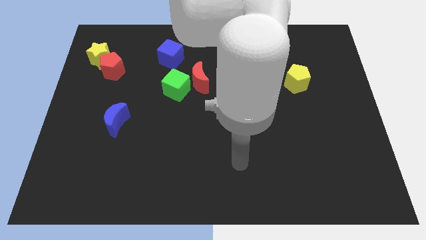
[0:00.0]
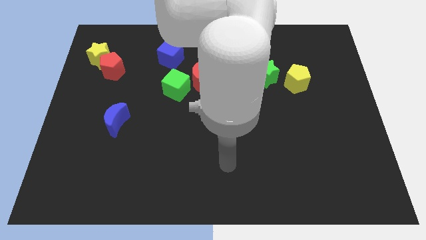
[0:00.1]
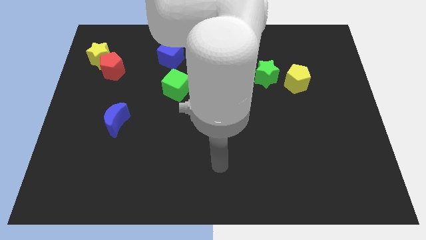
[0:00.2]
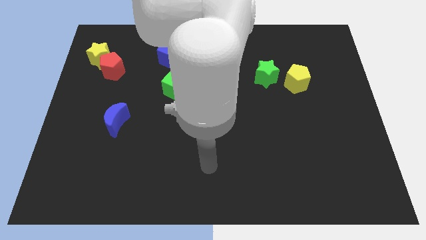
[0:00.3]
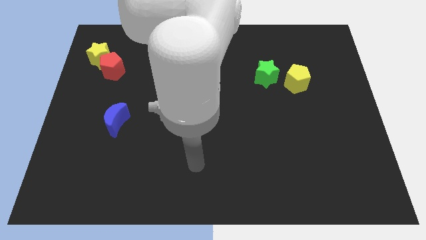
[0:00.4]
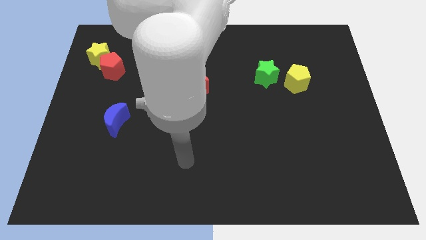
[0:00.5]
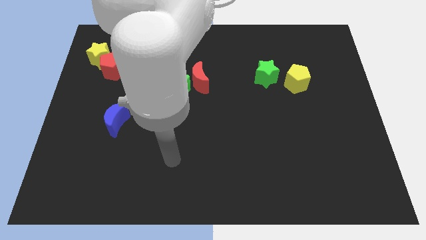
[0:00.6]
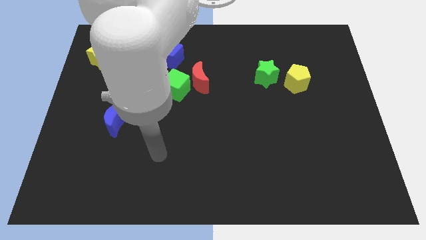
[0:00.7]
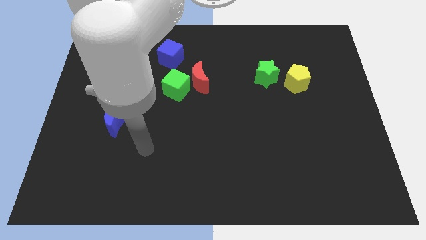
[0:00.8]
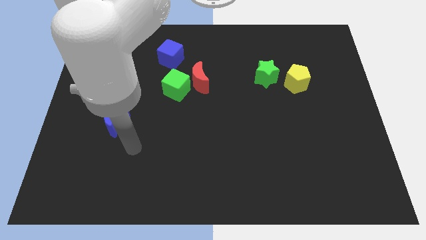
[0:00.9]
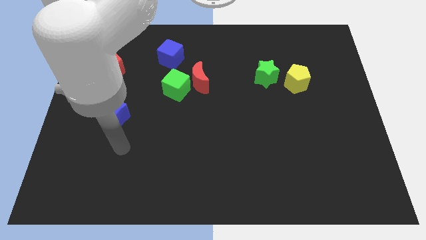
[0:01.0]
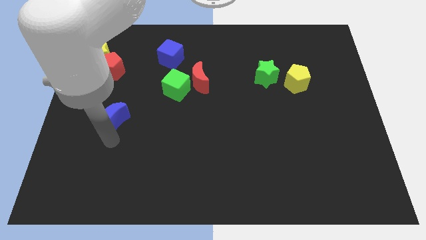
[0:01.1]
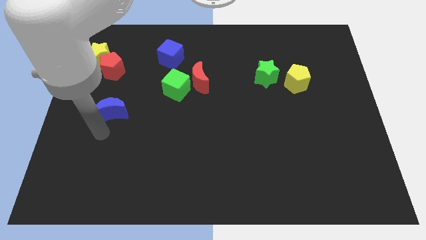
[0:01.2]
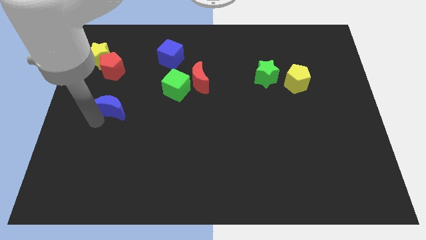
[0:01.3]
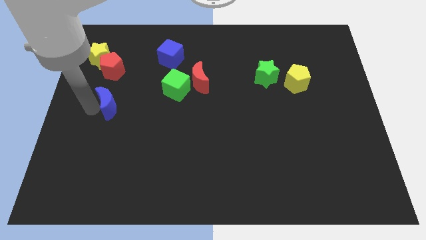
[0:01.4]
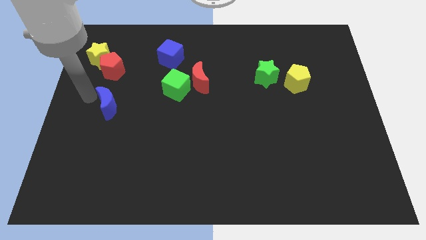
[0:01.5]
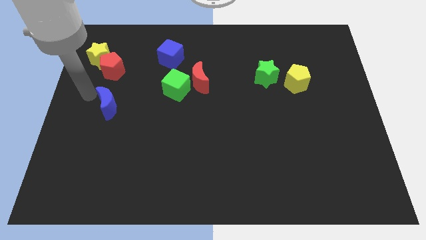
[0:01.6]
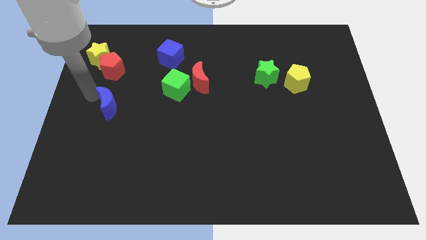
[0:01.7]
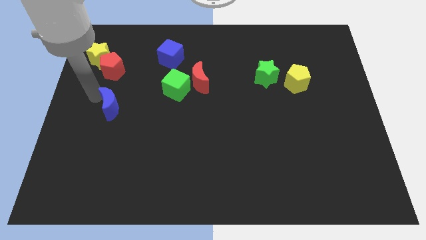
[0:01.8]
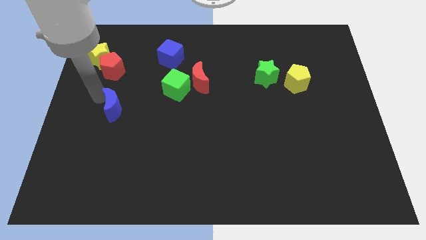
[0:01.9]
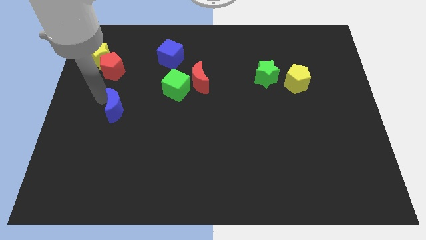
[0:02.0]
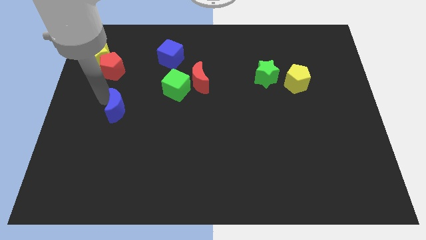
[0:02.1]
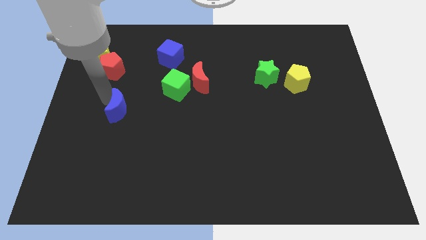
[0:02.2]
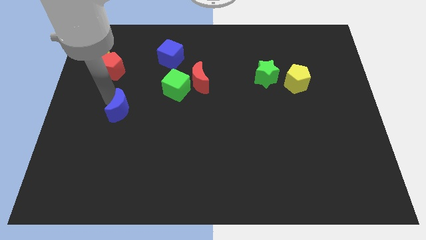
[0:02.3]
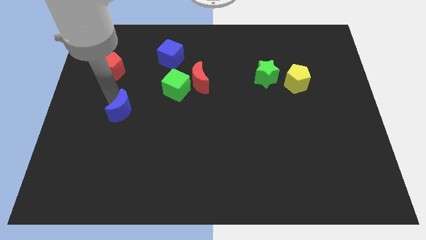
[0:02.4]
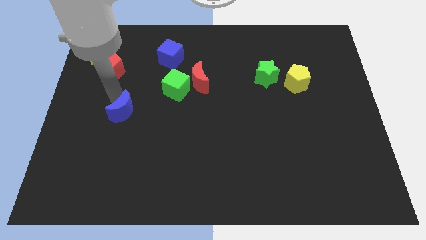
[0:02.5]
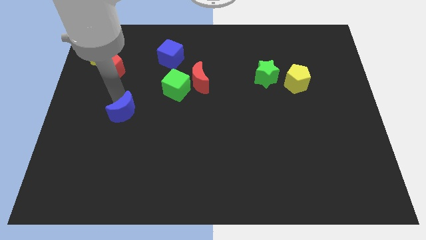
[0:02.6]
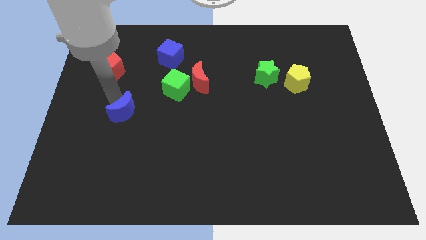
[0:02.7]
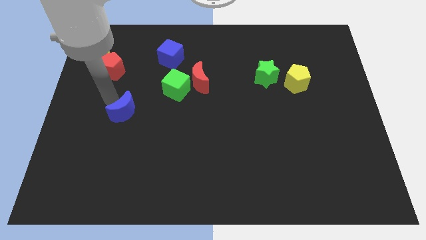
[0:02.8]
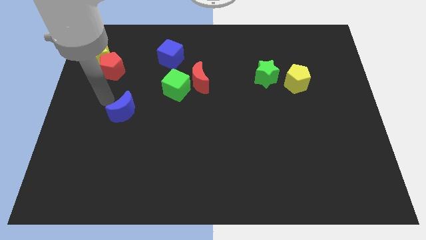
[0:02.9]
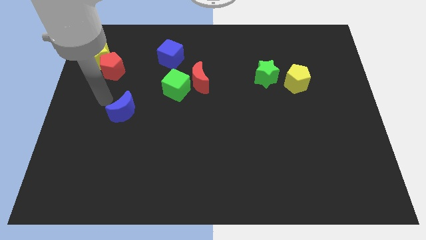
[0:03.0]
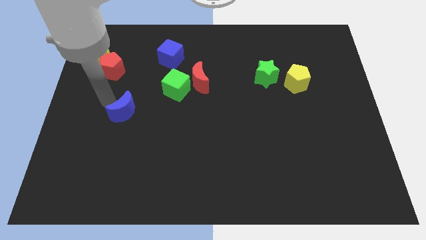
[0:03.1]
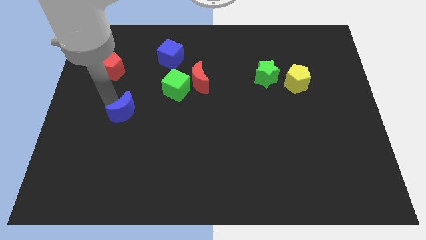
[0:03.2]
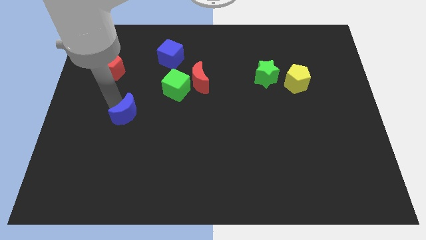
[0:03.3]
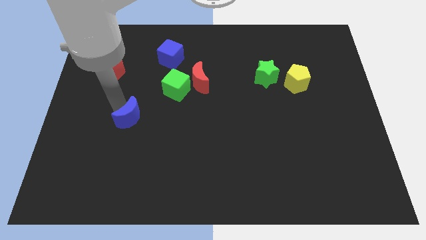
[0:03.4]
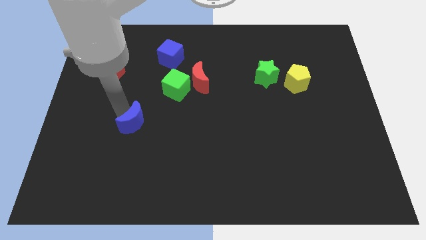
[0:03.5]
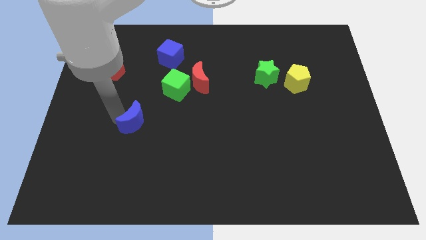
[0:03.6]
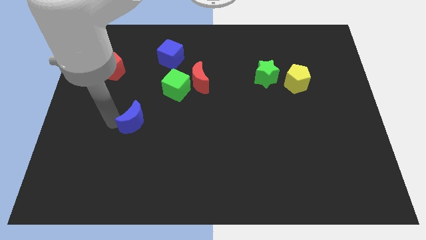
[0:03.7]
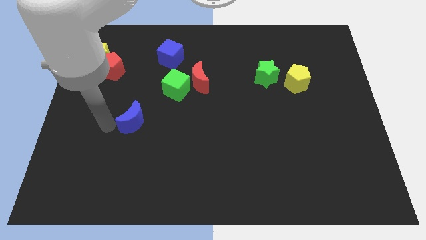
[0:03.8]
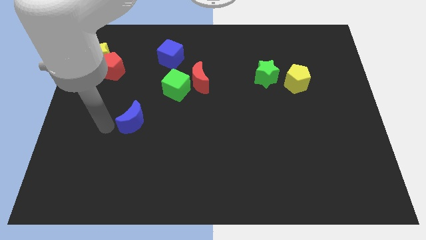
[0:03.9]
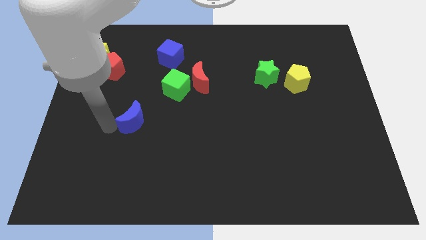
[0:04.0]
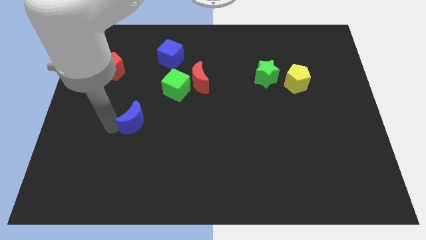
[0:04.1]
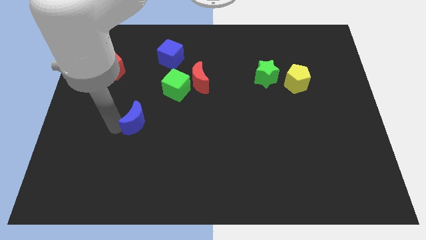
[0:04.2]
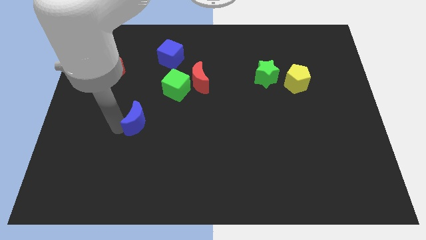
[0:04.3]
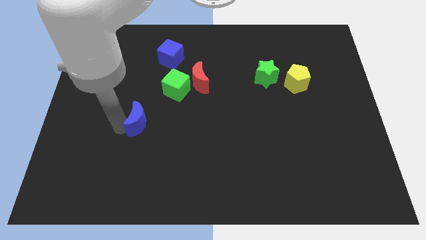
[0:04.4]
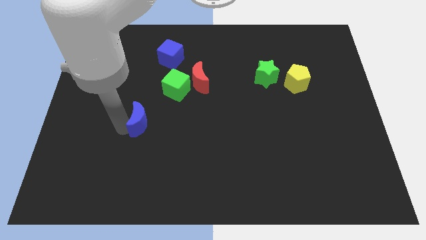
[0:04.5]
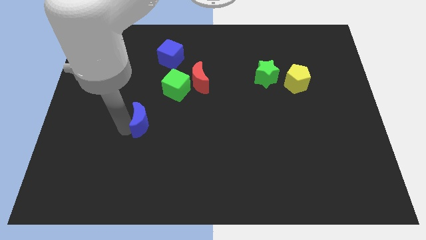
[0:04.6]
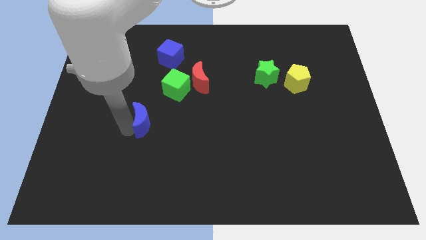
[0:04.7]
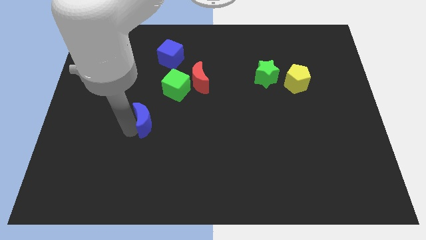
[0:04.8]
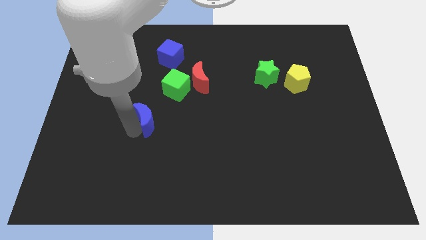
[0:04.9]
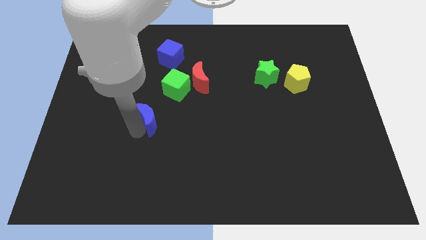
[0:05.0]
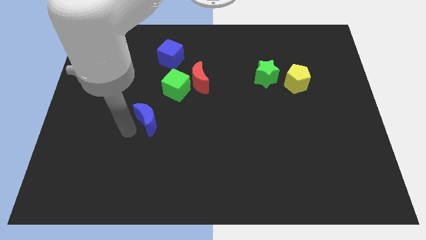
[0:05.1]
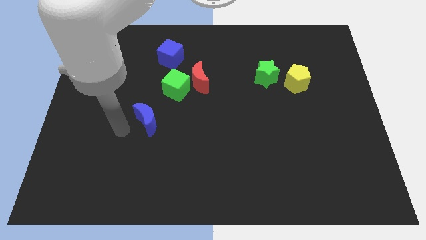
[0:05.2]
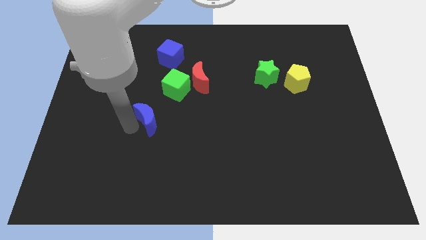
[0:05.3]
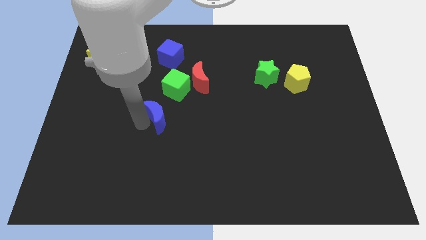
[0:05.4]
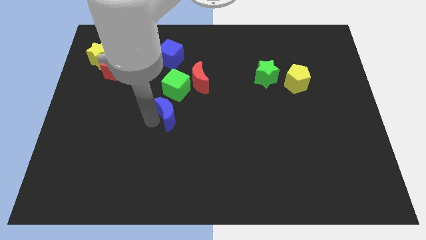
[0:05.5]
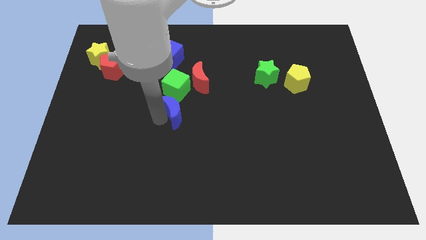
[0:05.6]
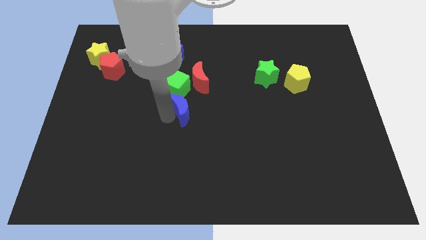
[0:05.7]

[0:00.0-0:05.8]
put the blue moon diagonally down and to the right of the green cube
